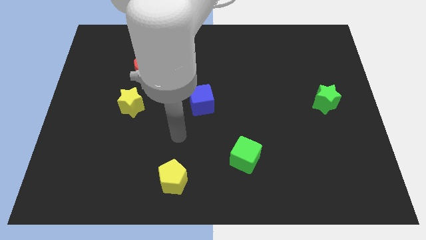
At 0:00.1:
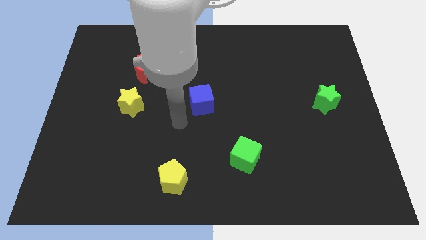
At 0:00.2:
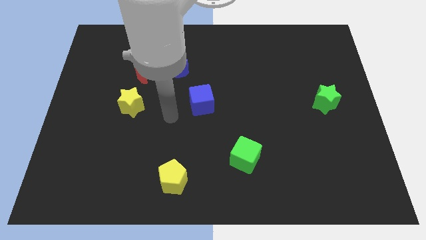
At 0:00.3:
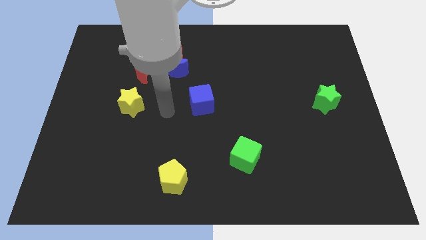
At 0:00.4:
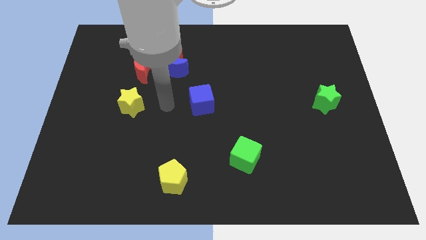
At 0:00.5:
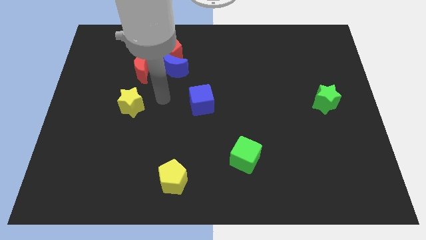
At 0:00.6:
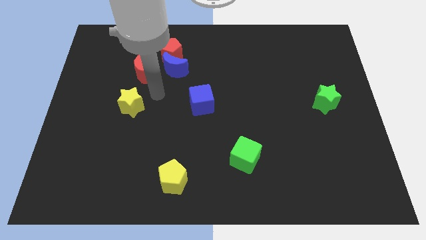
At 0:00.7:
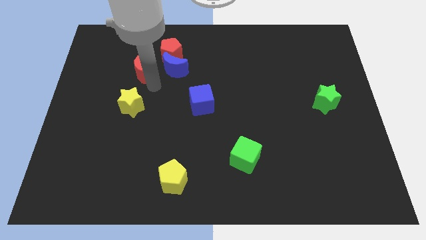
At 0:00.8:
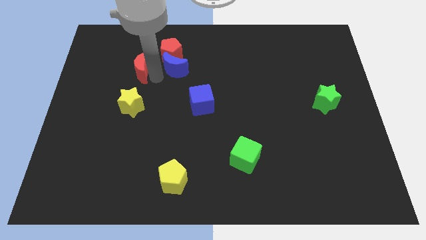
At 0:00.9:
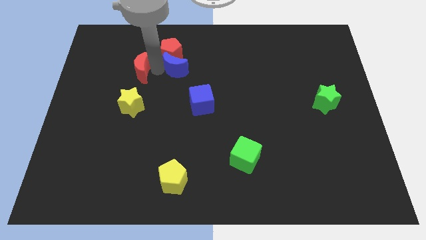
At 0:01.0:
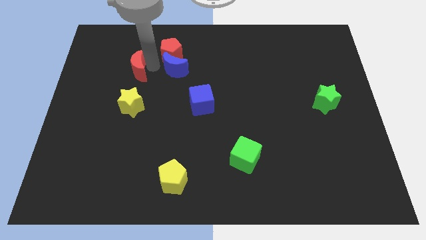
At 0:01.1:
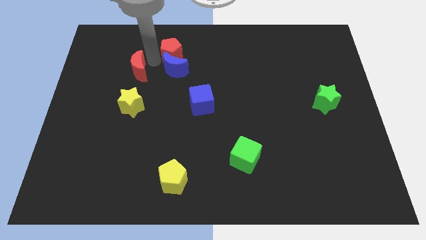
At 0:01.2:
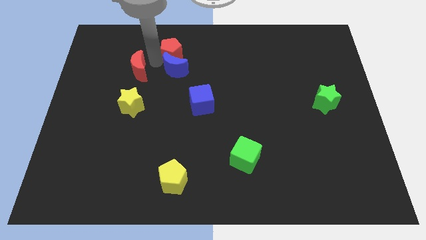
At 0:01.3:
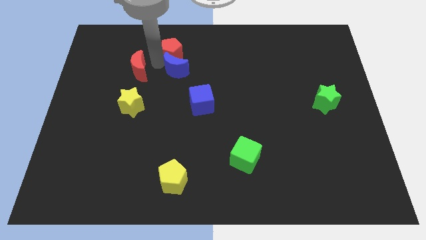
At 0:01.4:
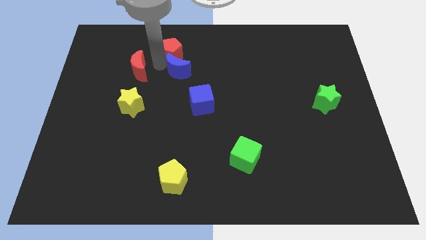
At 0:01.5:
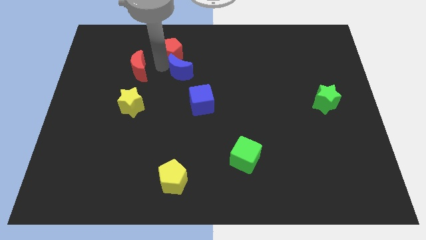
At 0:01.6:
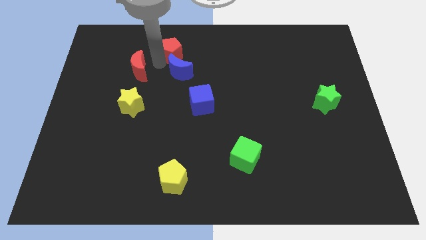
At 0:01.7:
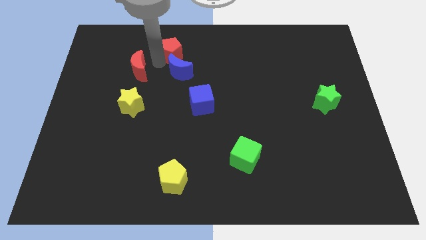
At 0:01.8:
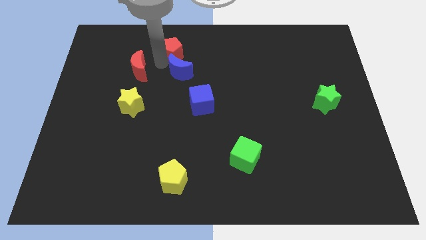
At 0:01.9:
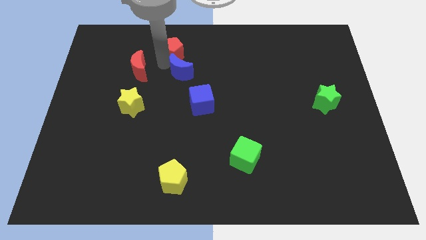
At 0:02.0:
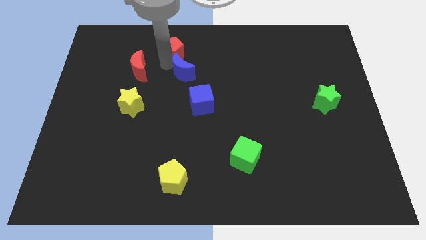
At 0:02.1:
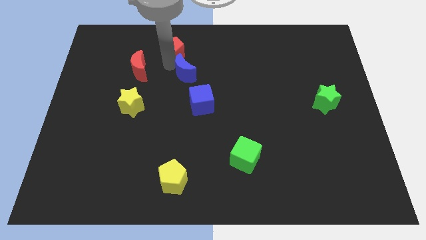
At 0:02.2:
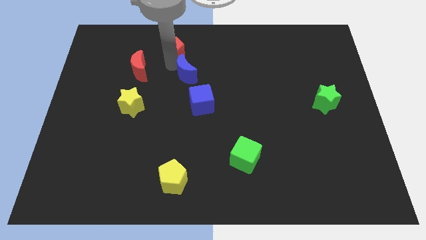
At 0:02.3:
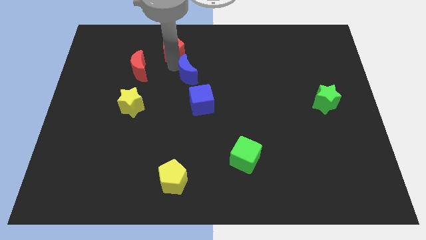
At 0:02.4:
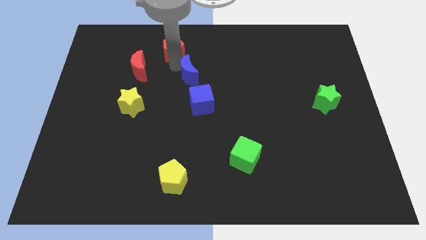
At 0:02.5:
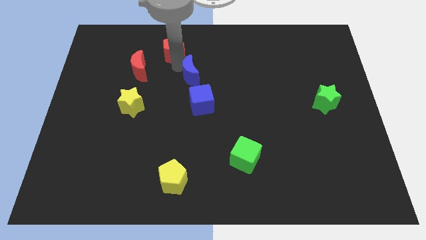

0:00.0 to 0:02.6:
move the blue moon away from the red pentagon and red moon

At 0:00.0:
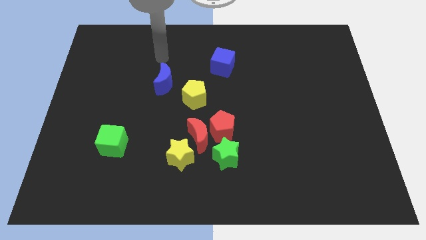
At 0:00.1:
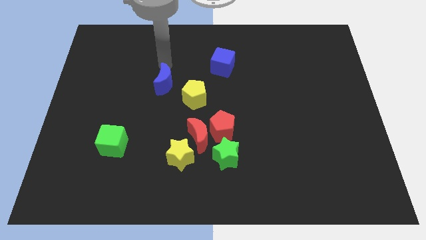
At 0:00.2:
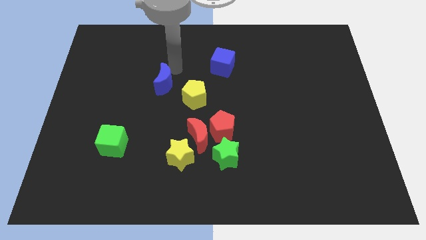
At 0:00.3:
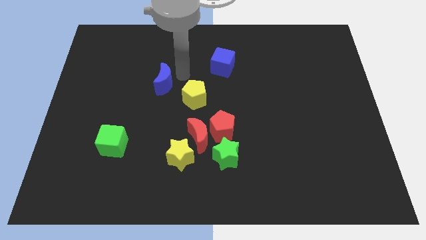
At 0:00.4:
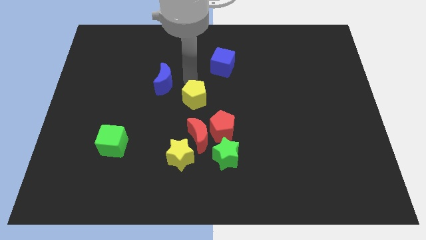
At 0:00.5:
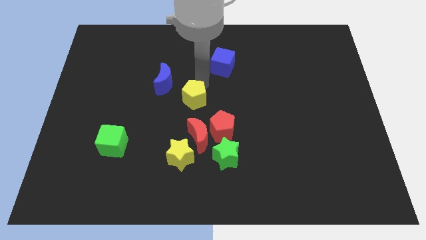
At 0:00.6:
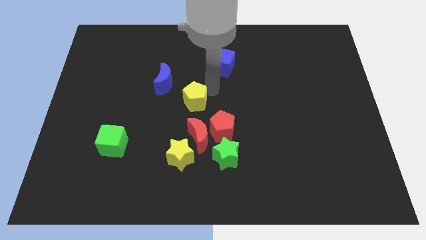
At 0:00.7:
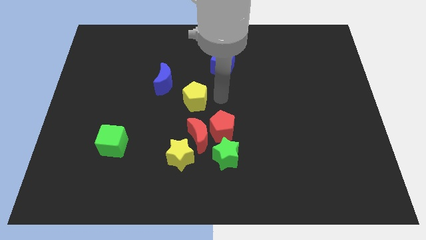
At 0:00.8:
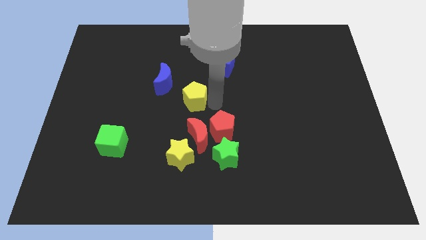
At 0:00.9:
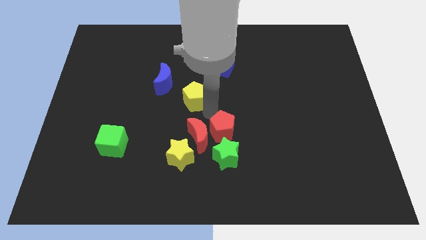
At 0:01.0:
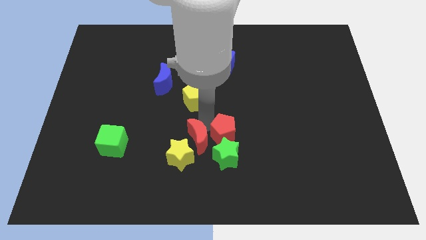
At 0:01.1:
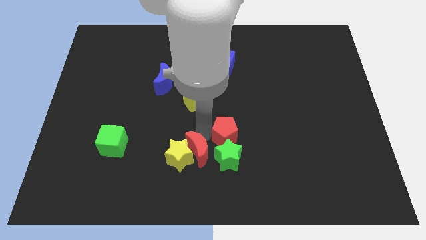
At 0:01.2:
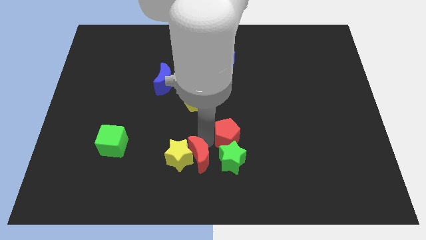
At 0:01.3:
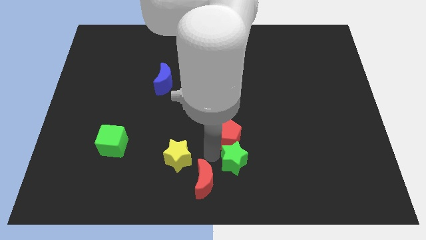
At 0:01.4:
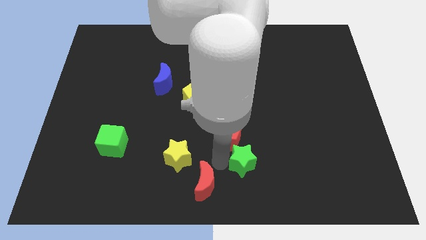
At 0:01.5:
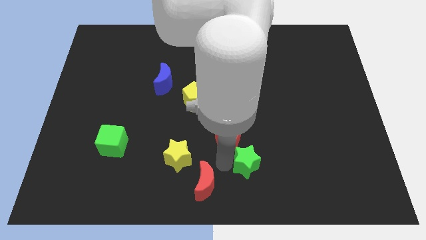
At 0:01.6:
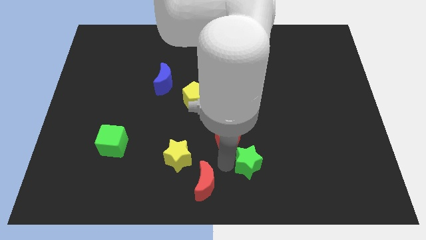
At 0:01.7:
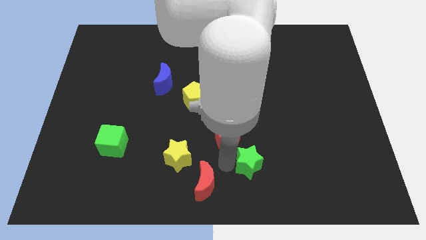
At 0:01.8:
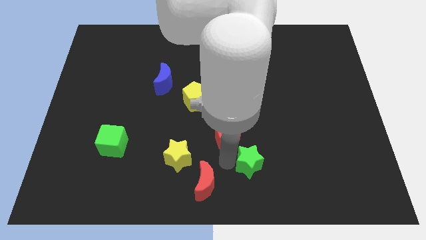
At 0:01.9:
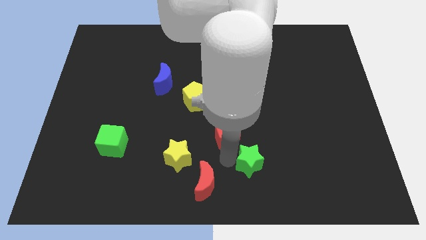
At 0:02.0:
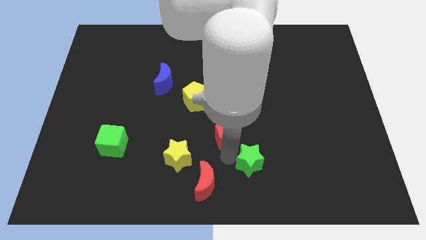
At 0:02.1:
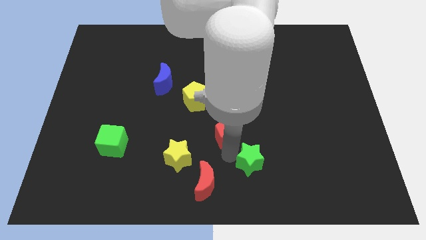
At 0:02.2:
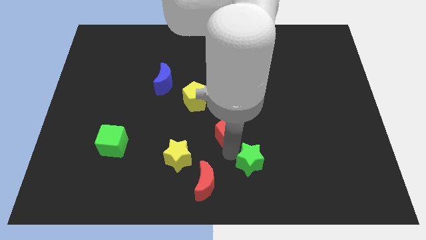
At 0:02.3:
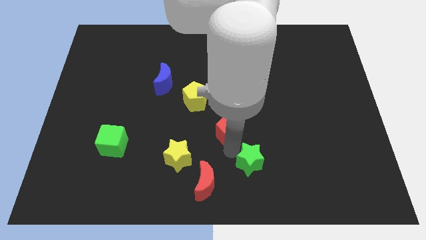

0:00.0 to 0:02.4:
move the red pentagon away from the red moon and green star

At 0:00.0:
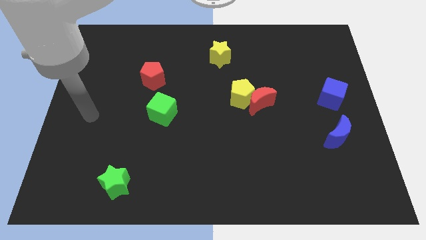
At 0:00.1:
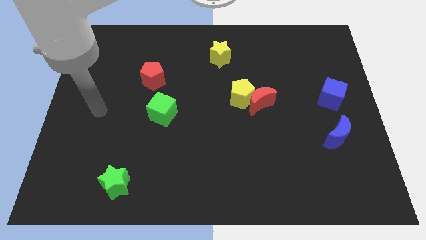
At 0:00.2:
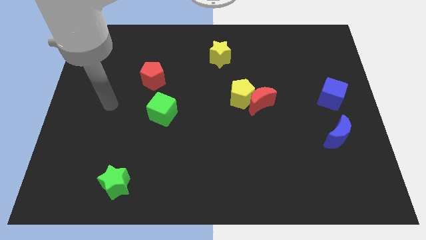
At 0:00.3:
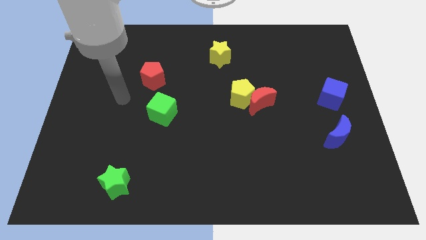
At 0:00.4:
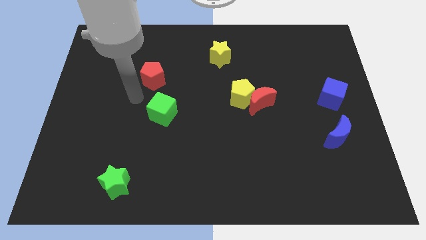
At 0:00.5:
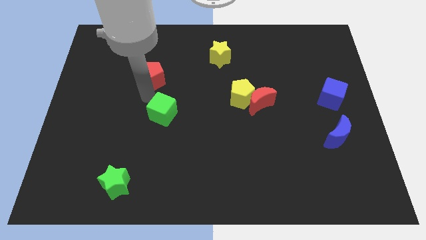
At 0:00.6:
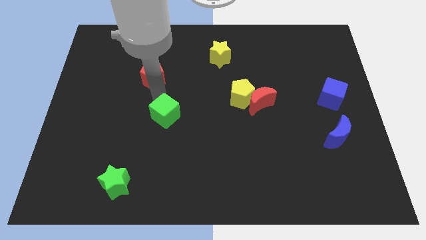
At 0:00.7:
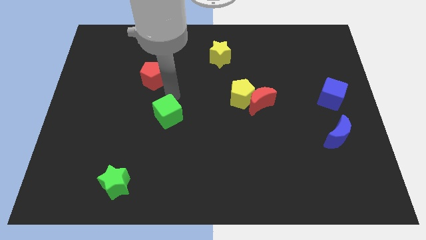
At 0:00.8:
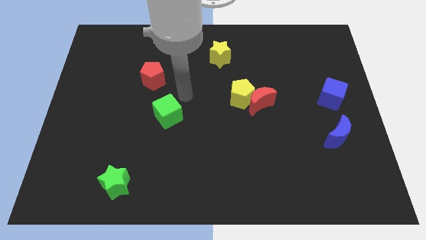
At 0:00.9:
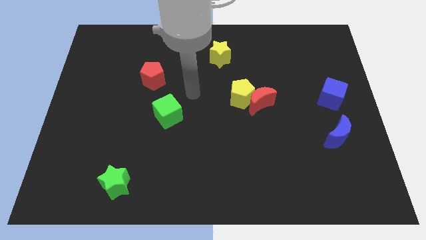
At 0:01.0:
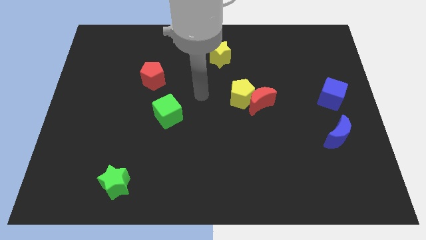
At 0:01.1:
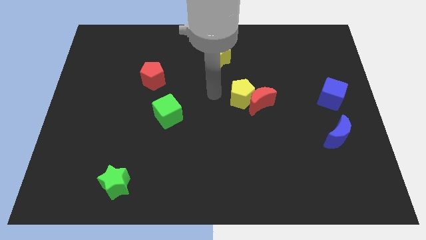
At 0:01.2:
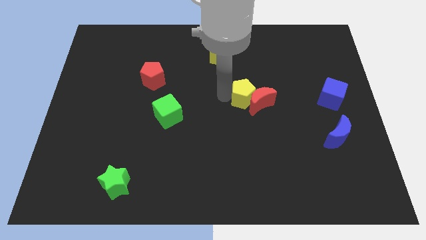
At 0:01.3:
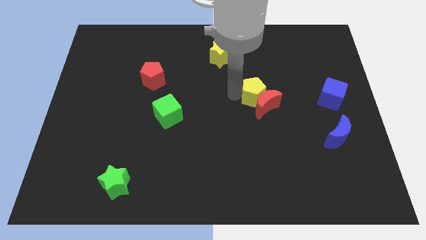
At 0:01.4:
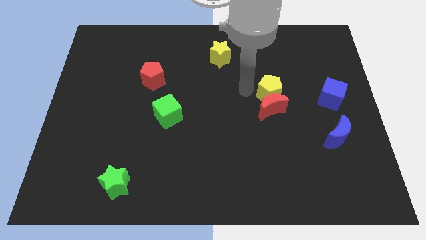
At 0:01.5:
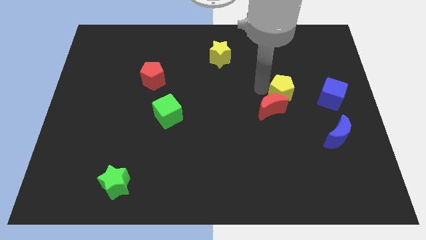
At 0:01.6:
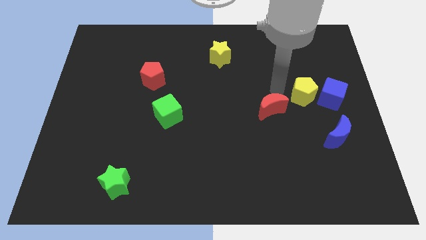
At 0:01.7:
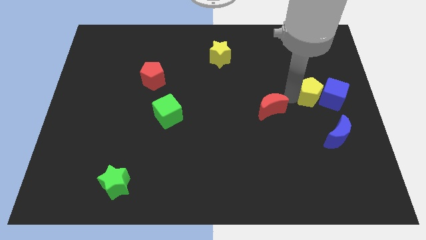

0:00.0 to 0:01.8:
pull the red moon apart from the yellow pentagon

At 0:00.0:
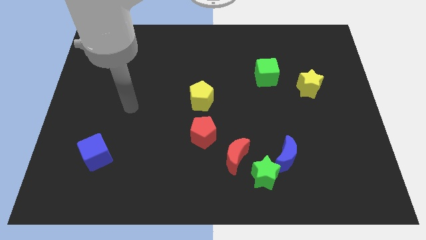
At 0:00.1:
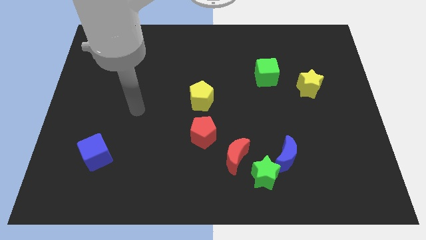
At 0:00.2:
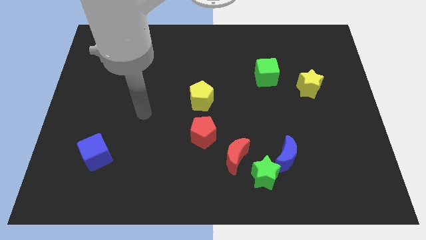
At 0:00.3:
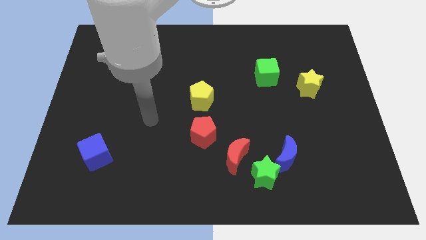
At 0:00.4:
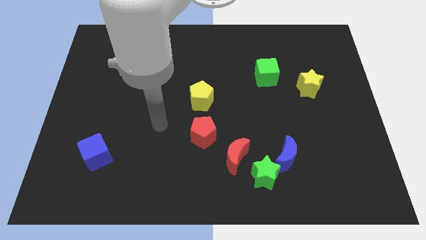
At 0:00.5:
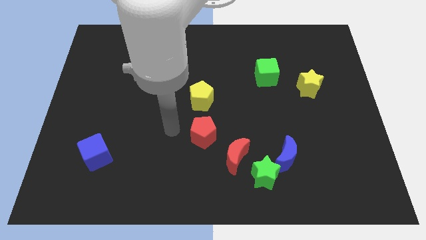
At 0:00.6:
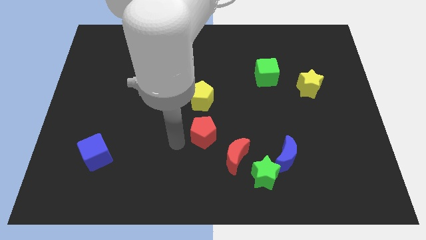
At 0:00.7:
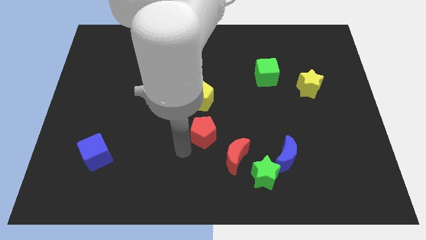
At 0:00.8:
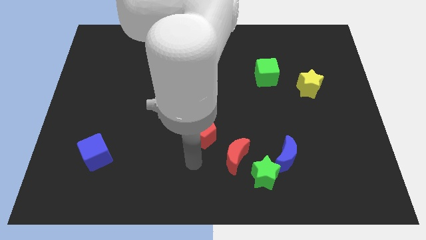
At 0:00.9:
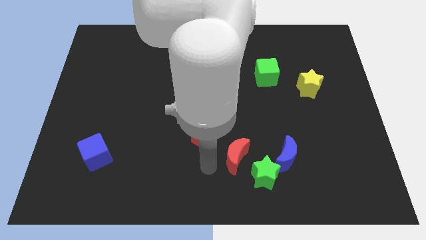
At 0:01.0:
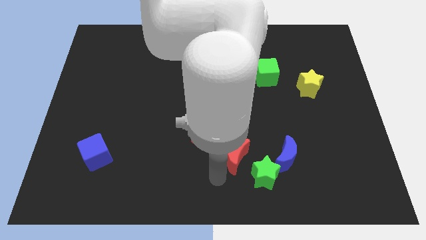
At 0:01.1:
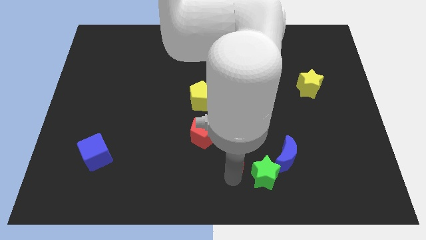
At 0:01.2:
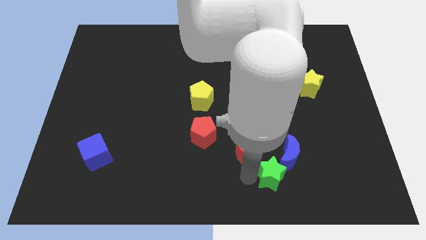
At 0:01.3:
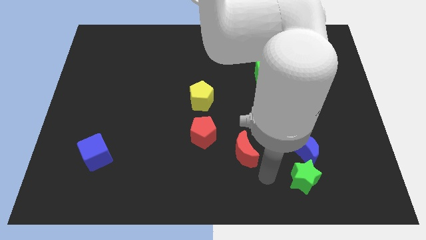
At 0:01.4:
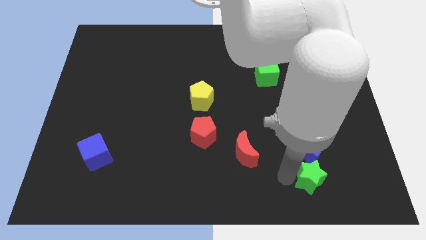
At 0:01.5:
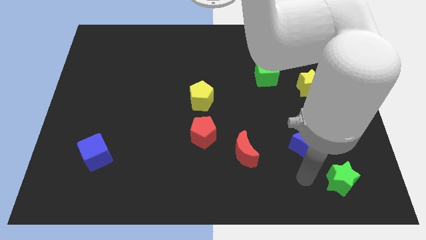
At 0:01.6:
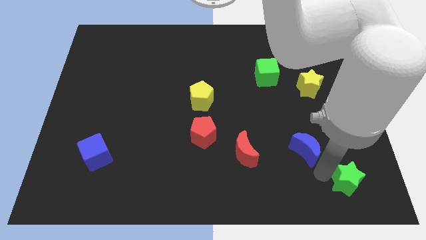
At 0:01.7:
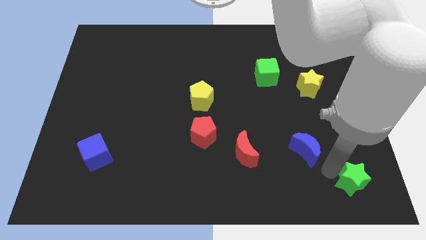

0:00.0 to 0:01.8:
pull the blue moon apart from the green star

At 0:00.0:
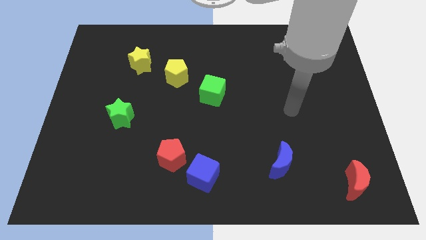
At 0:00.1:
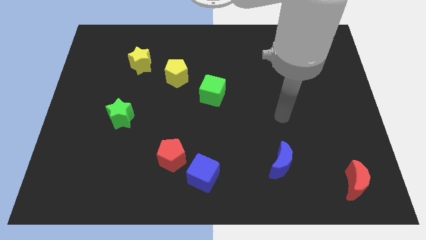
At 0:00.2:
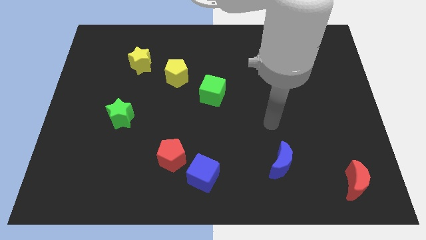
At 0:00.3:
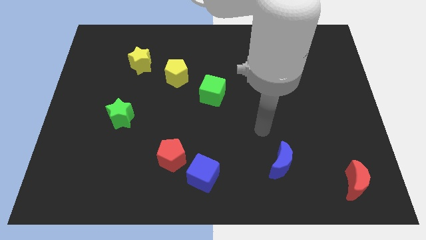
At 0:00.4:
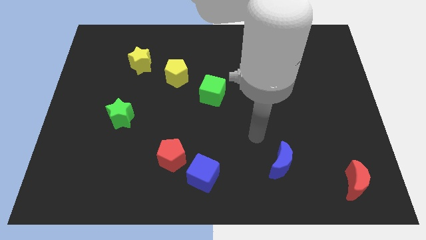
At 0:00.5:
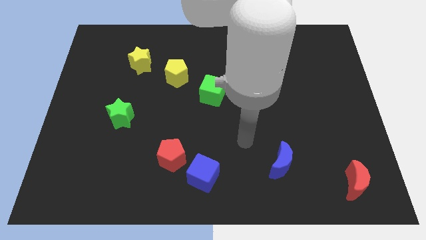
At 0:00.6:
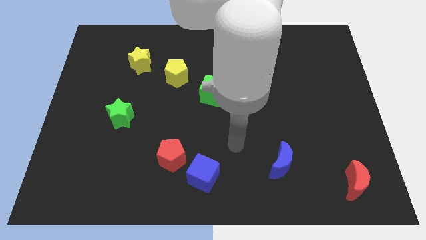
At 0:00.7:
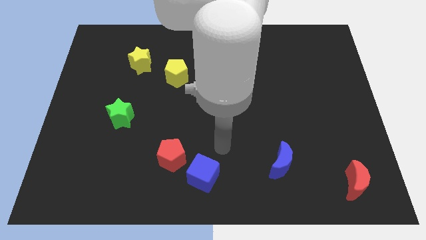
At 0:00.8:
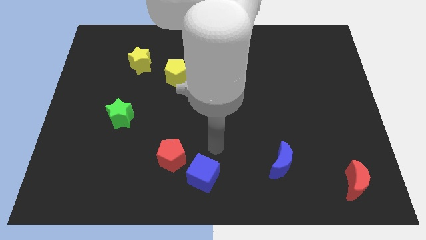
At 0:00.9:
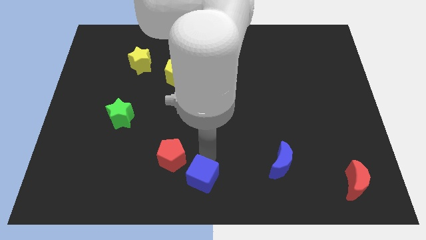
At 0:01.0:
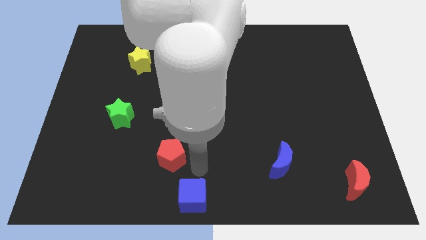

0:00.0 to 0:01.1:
pull the red pentagon apart from the blue cube
